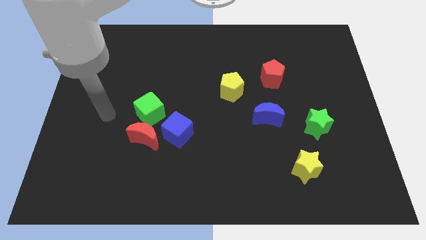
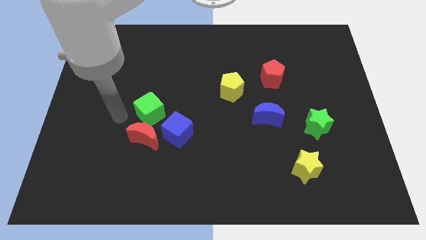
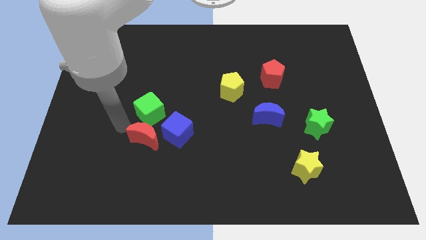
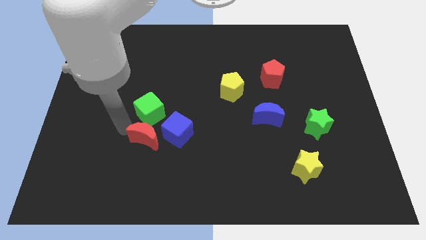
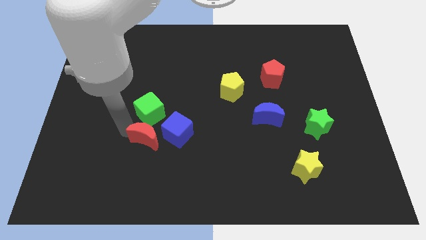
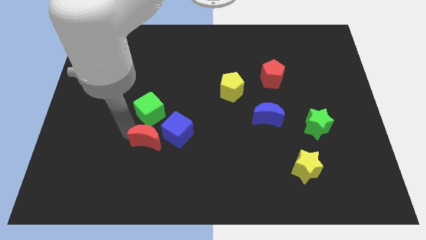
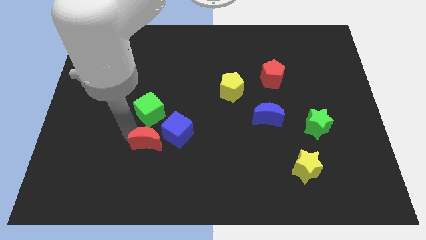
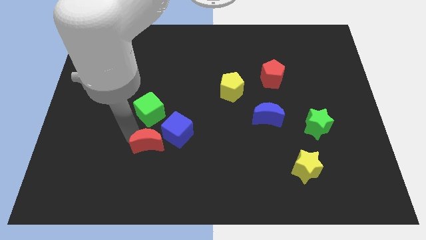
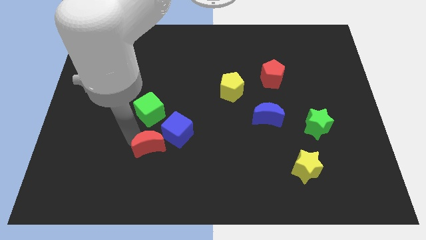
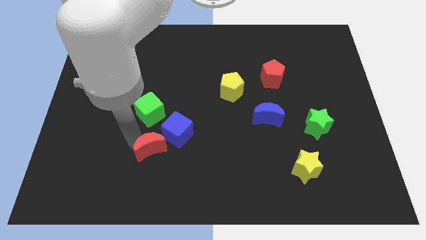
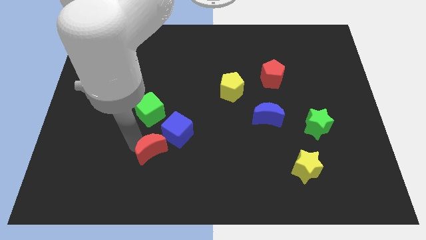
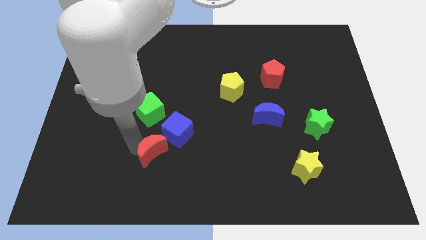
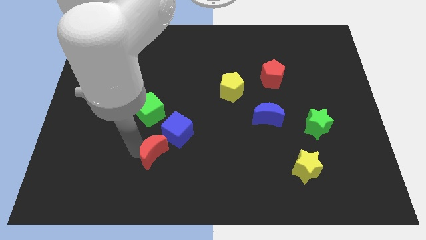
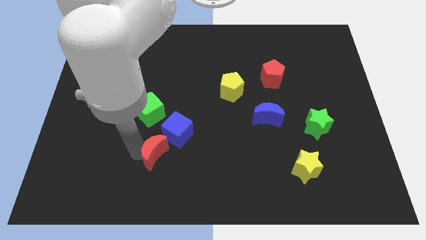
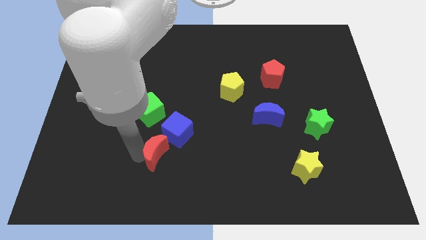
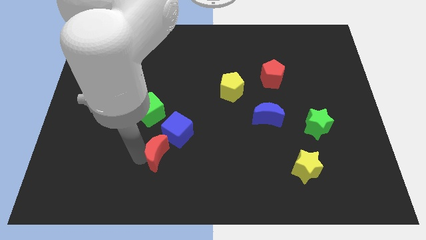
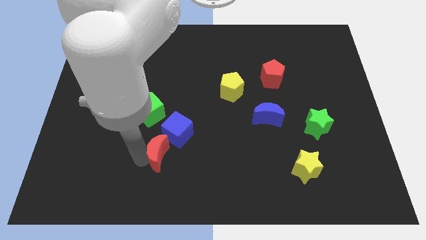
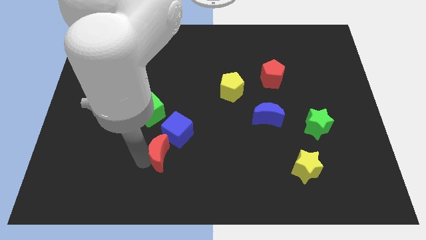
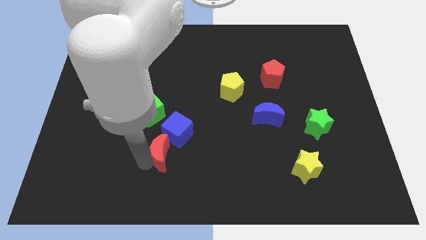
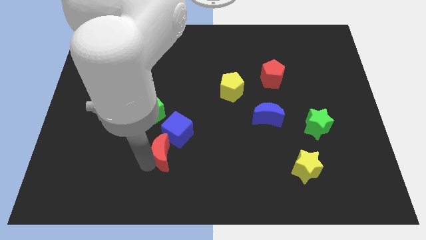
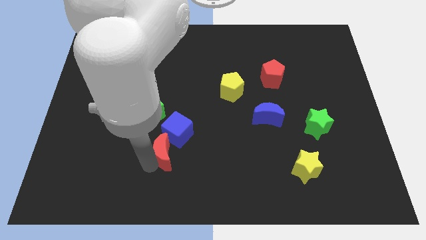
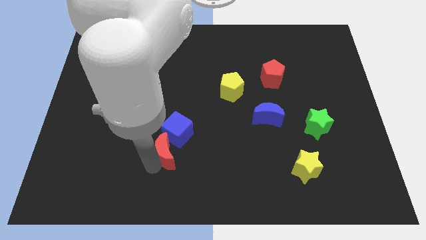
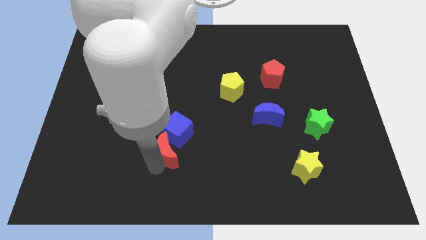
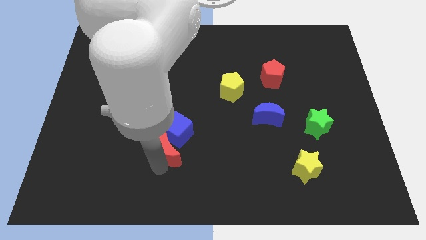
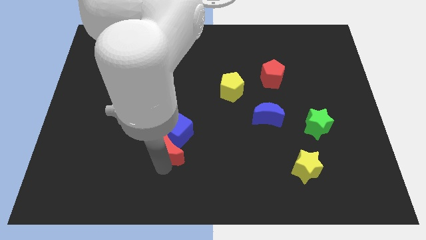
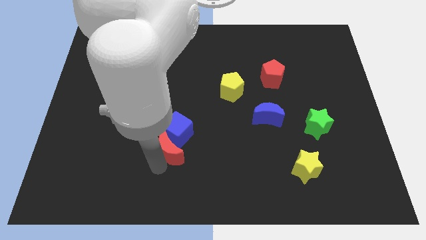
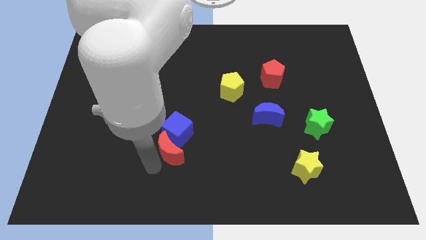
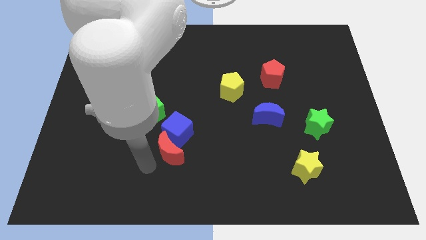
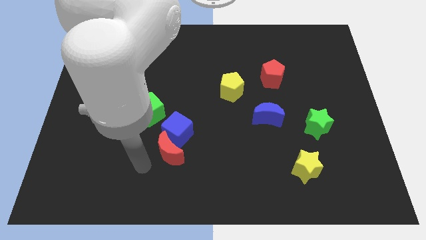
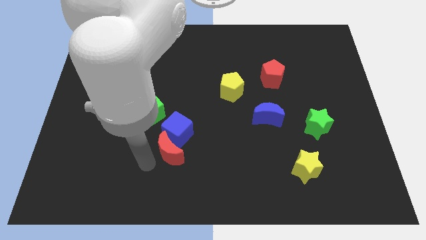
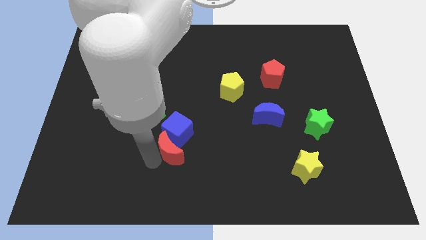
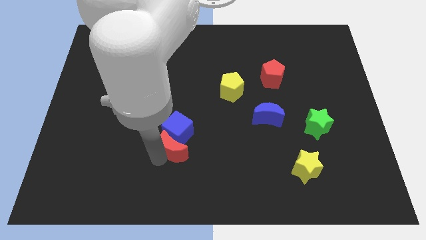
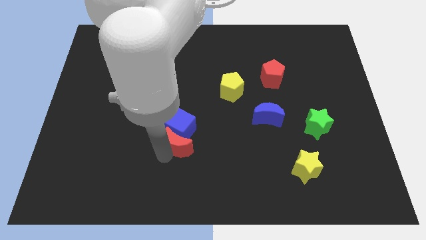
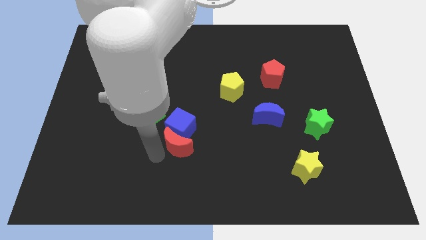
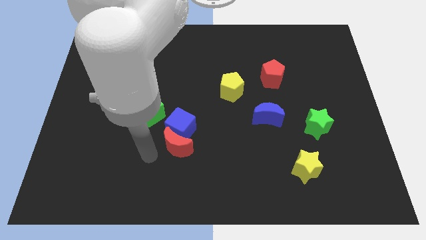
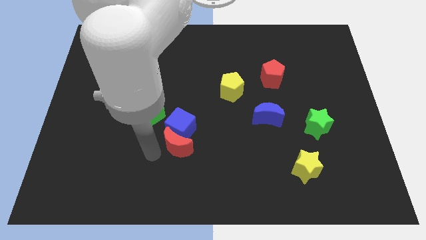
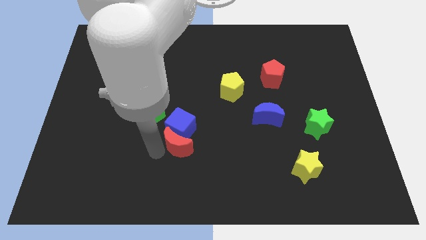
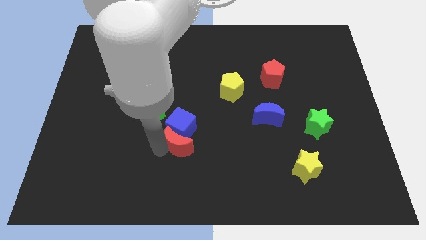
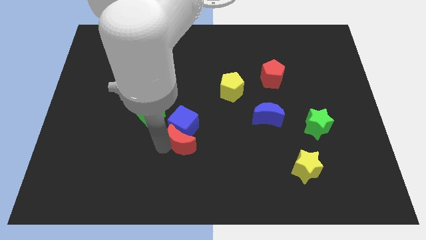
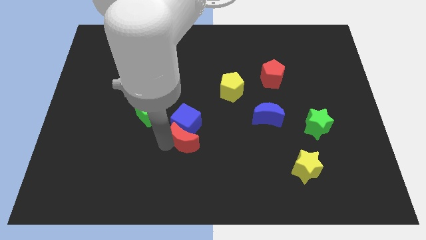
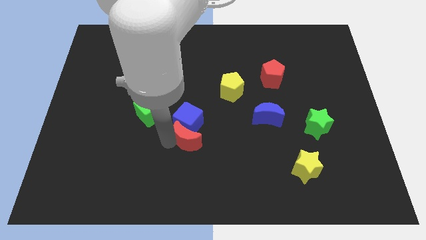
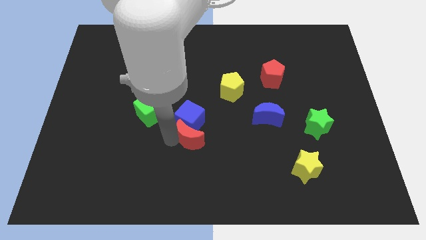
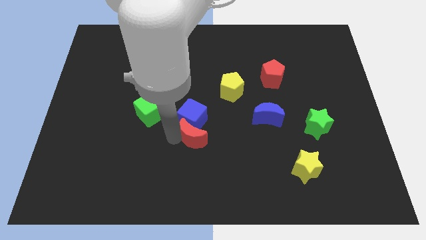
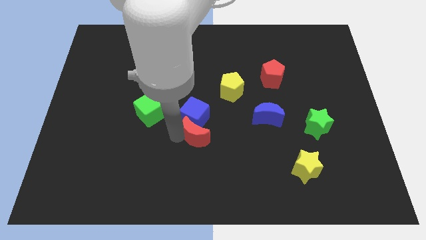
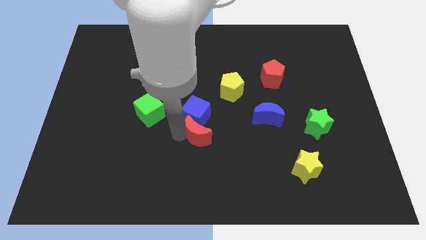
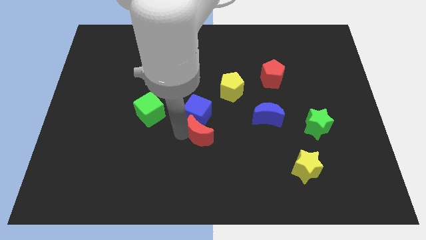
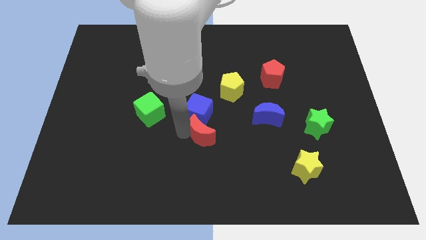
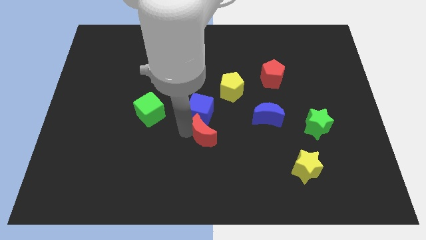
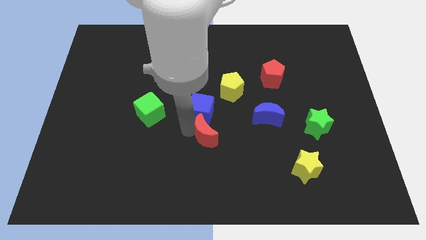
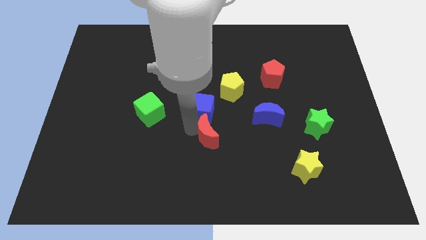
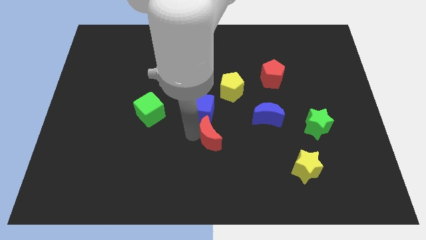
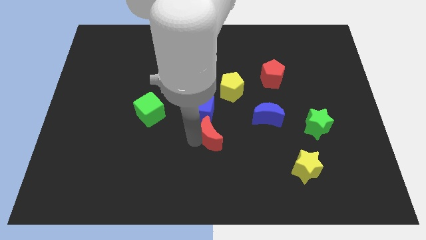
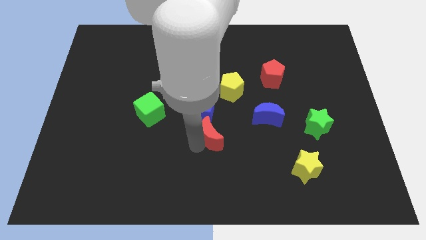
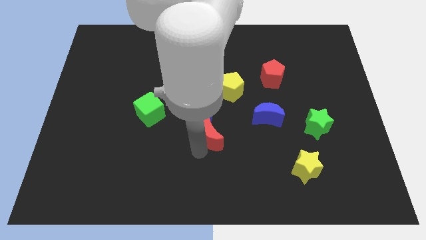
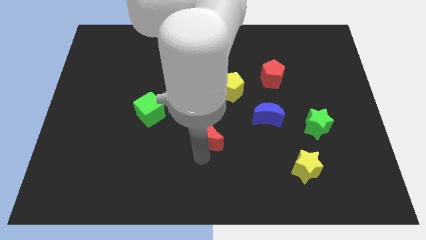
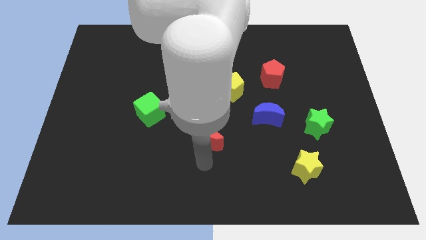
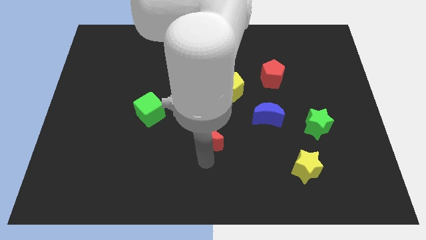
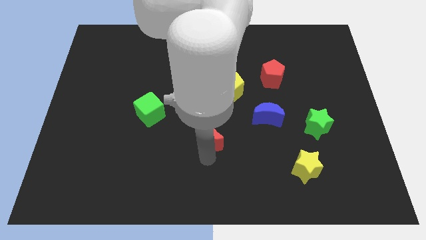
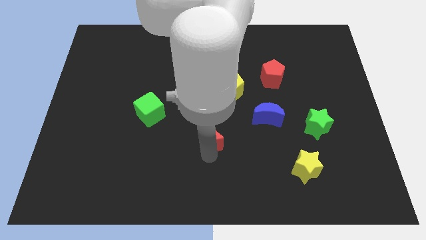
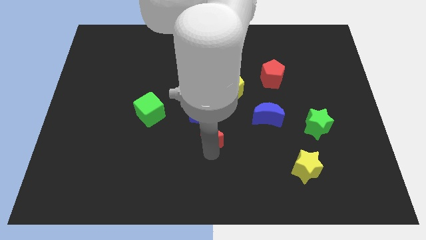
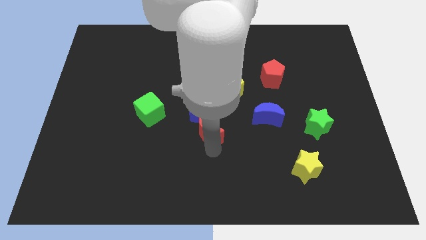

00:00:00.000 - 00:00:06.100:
slightly move the red moon diagonally upwards and right

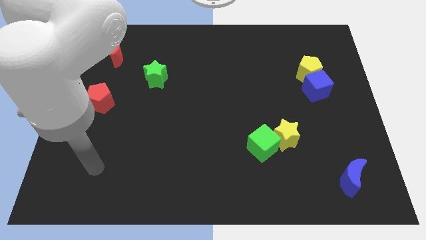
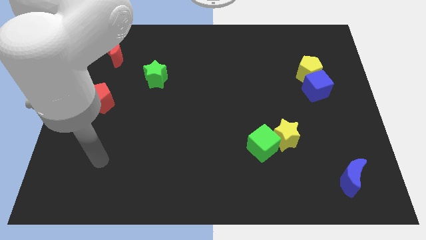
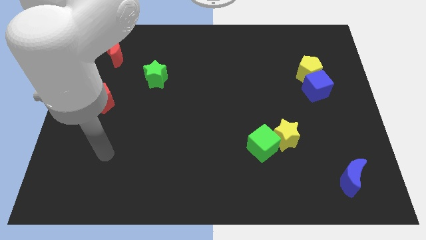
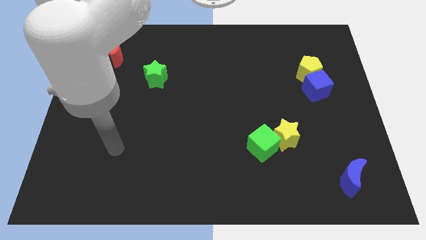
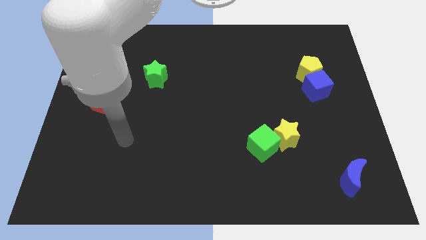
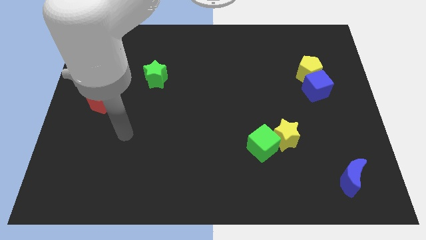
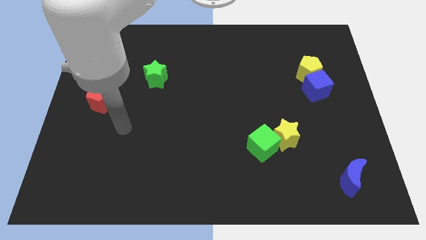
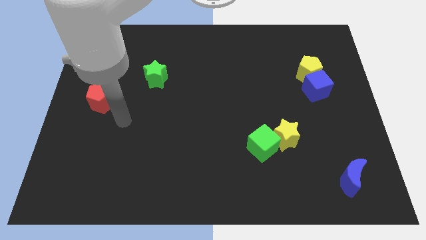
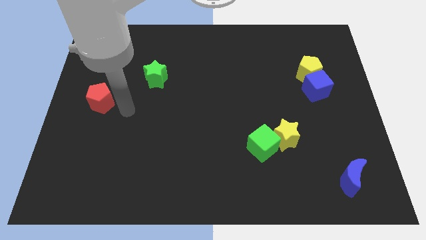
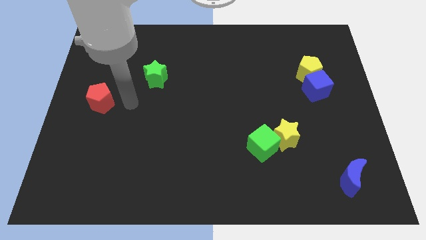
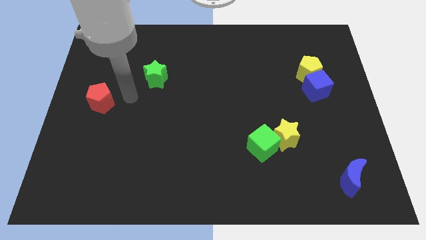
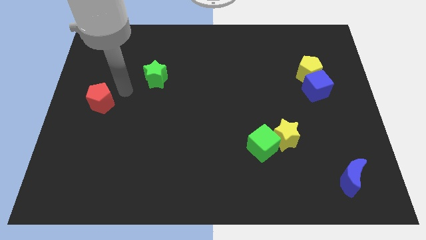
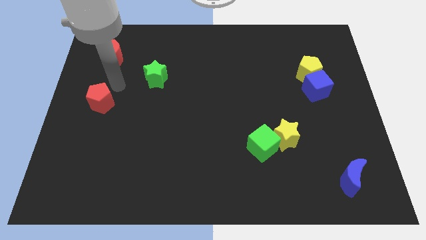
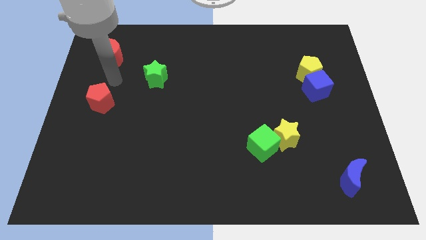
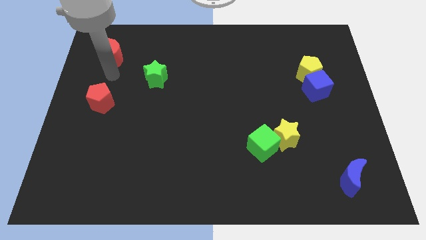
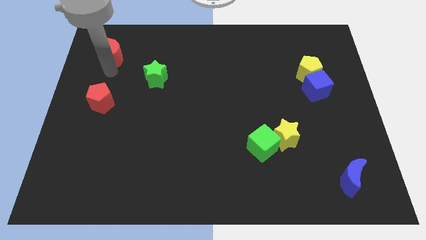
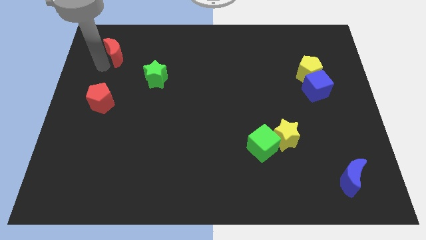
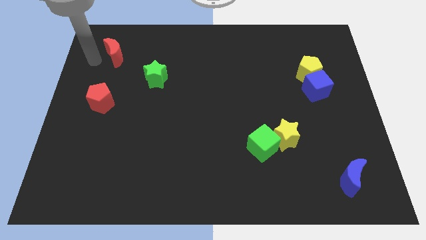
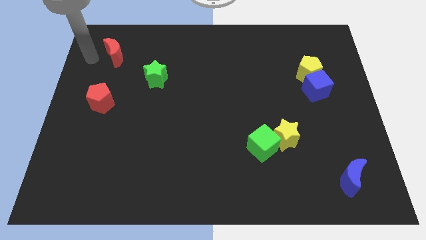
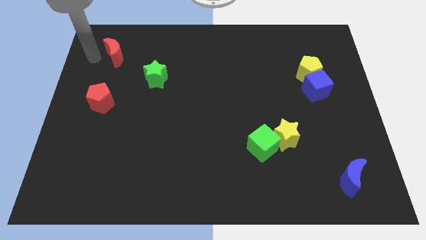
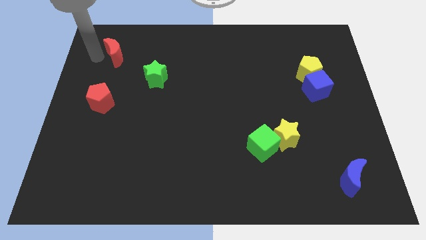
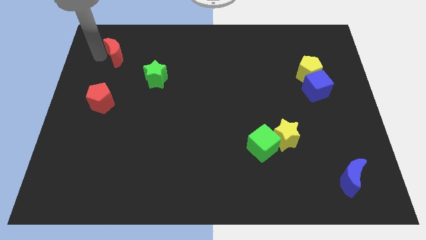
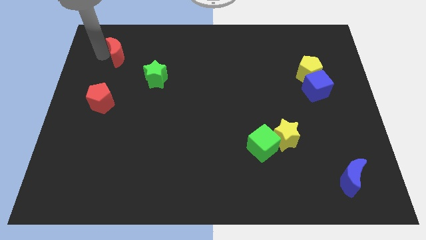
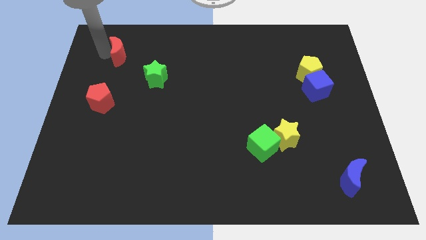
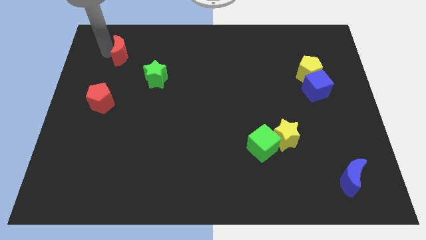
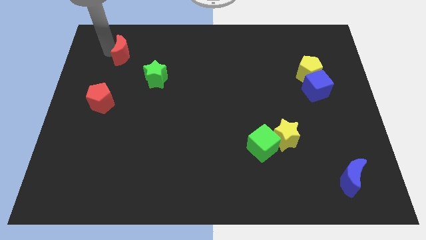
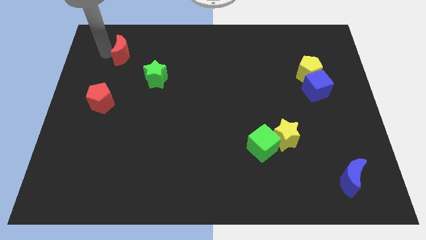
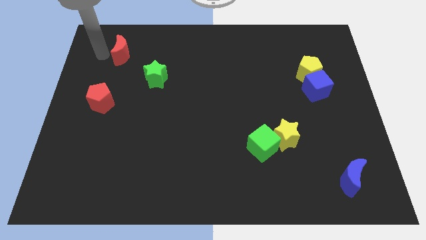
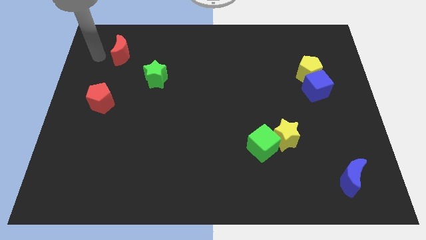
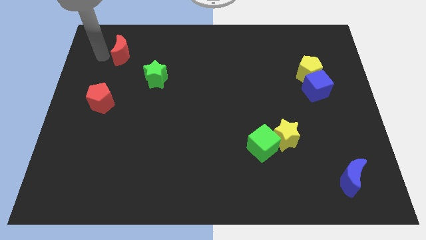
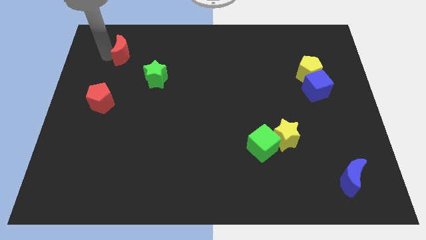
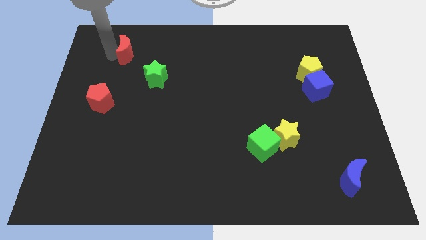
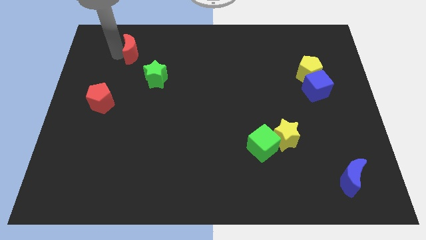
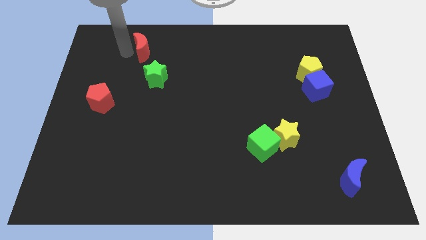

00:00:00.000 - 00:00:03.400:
move the red moon a little bit right
